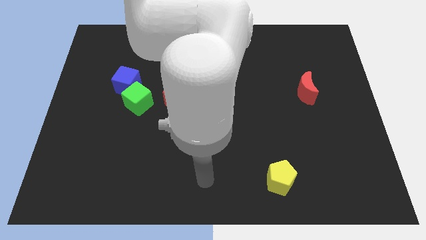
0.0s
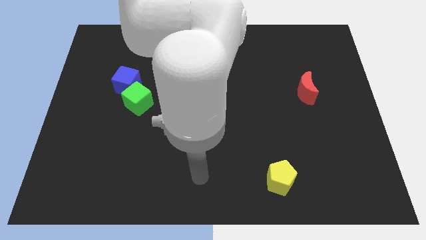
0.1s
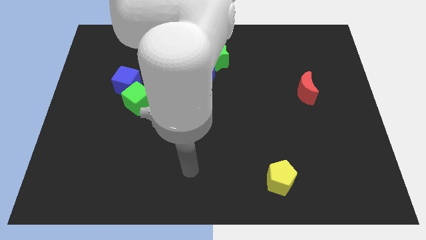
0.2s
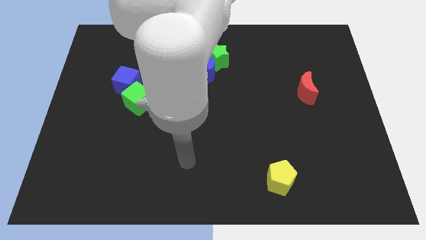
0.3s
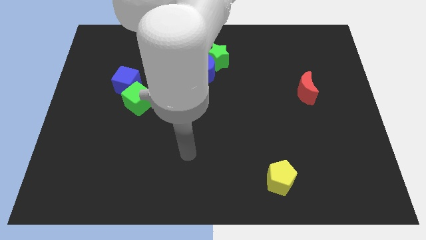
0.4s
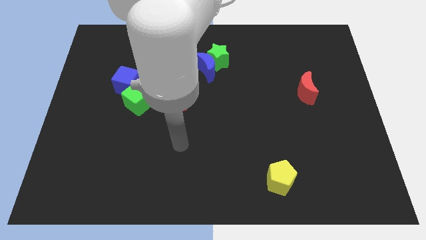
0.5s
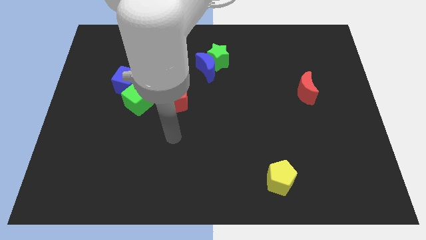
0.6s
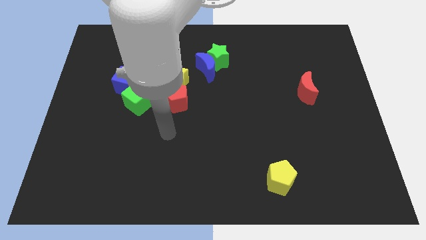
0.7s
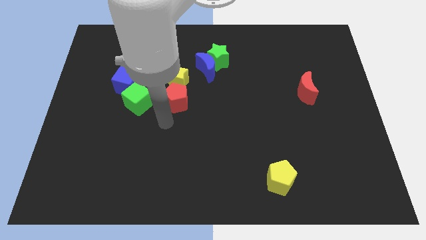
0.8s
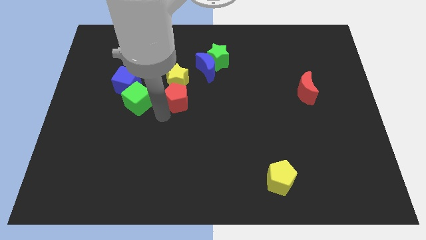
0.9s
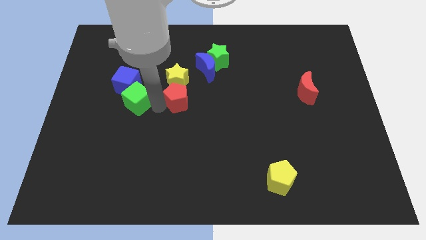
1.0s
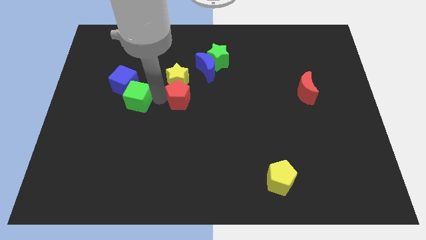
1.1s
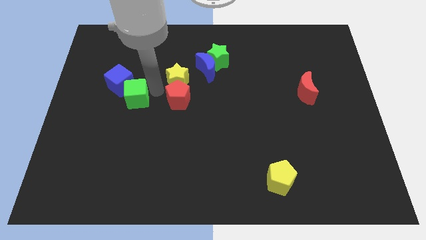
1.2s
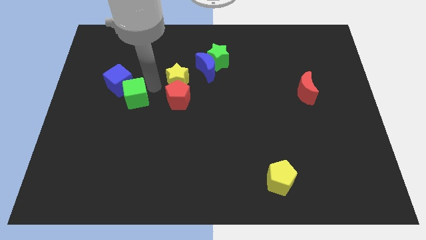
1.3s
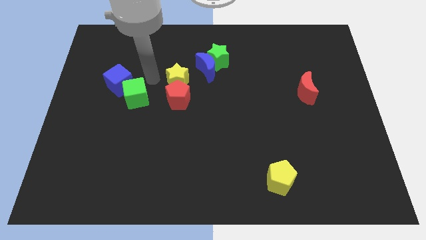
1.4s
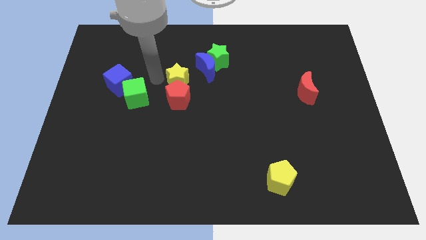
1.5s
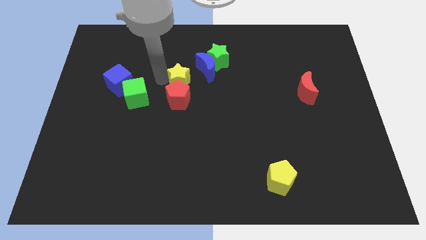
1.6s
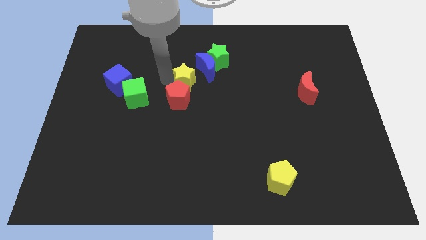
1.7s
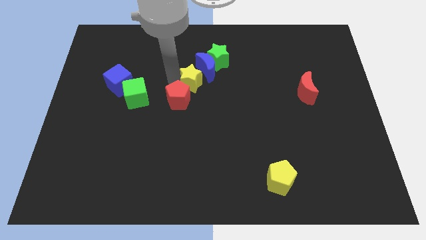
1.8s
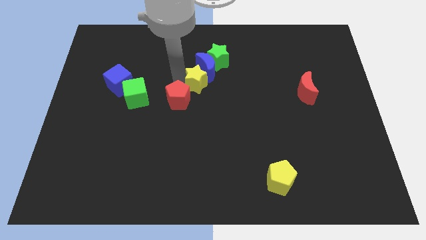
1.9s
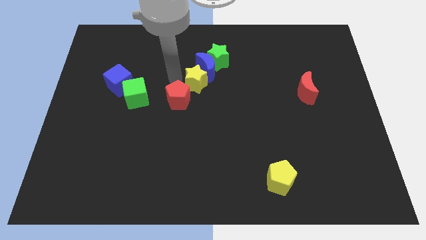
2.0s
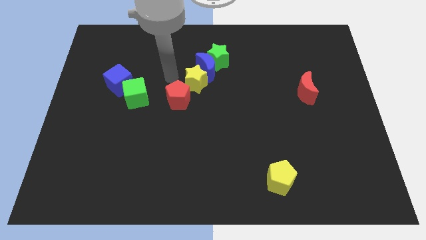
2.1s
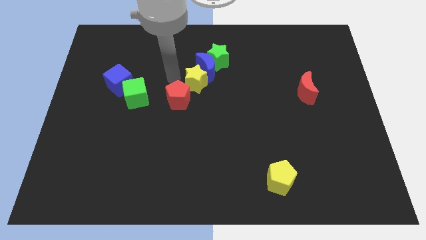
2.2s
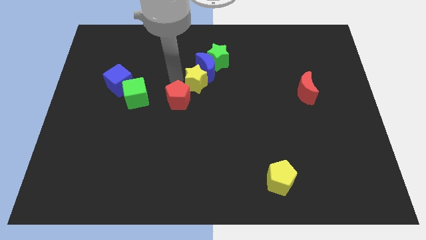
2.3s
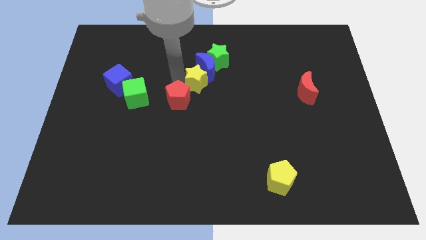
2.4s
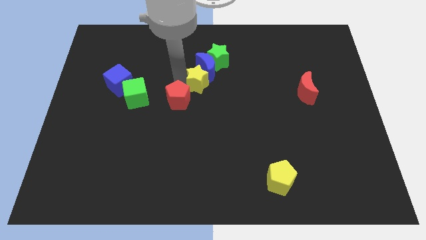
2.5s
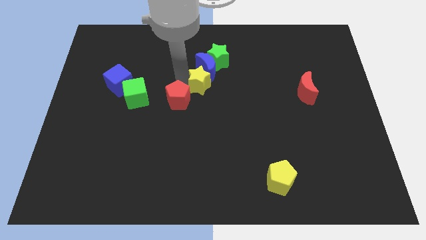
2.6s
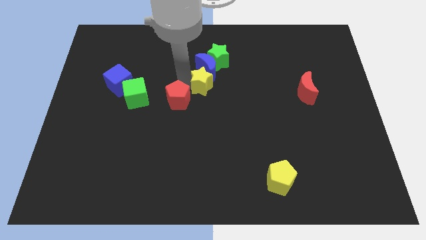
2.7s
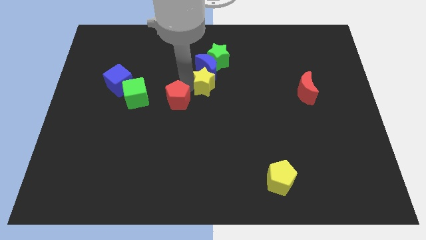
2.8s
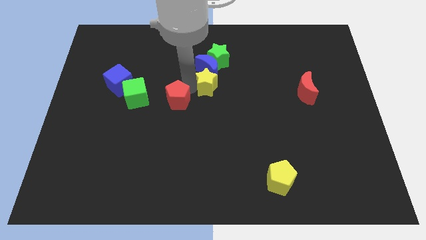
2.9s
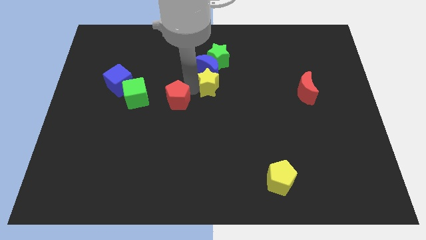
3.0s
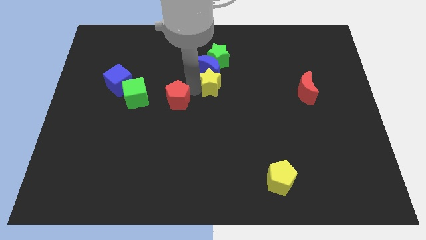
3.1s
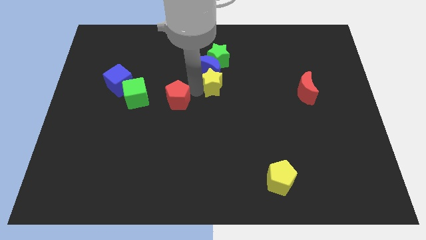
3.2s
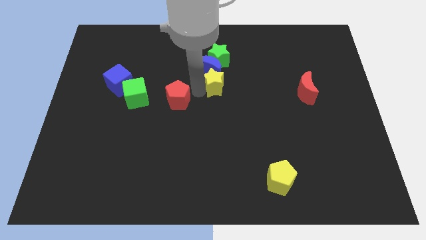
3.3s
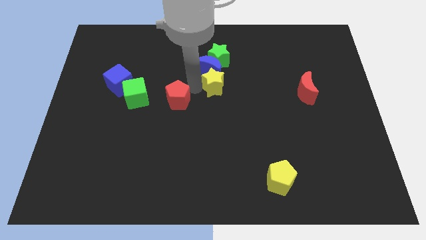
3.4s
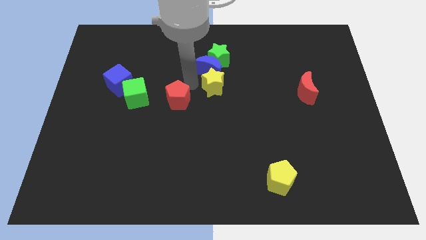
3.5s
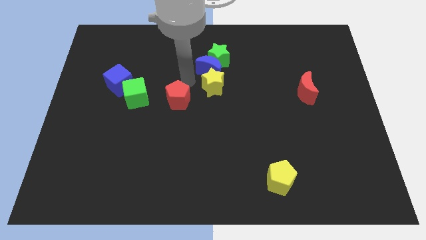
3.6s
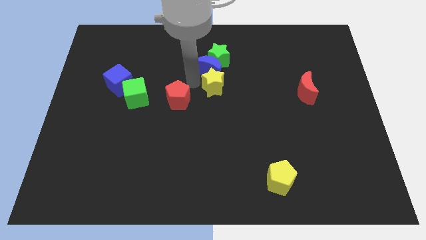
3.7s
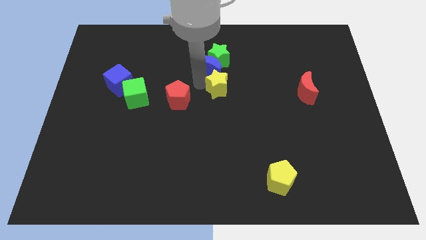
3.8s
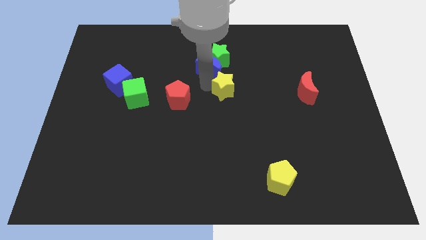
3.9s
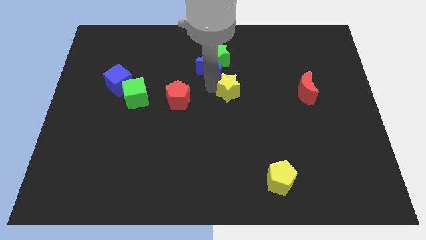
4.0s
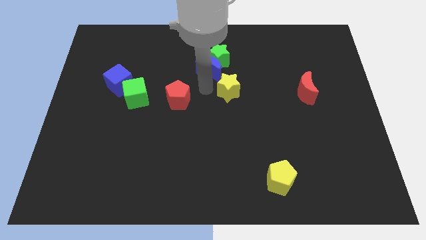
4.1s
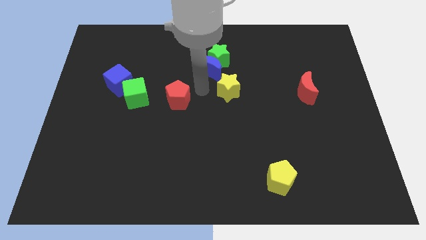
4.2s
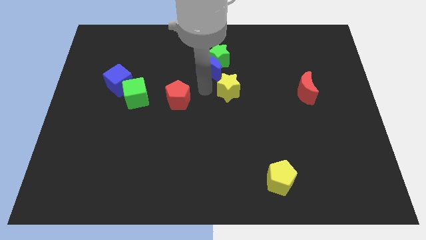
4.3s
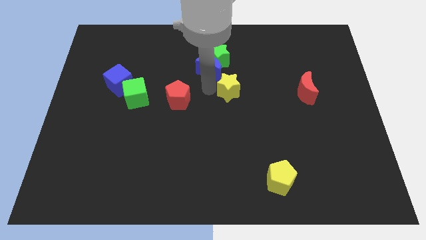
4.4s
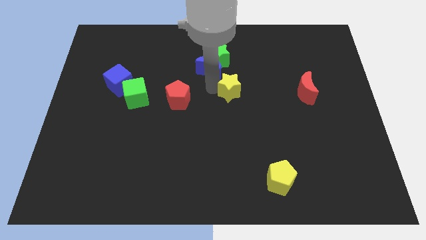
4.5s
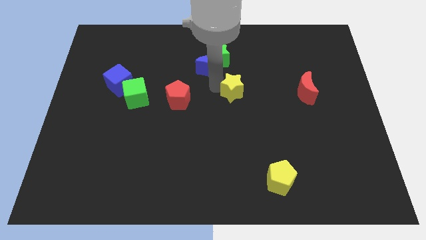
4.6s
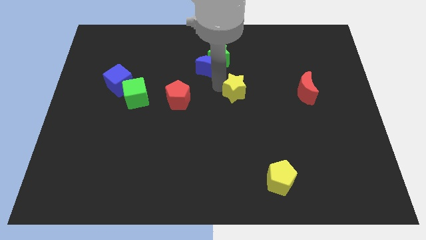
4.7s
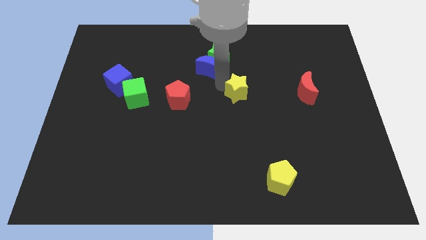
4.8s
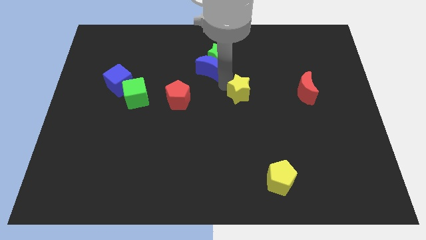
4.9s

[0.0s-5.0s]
slide the yellow star to the left side of the red moon

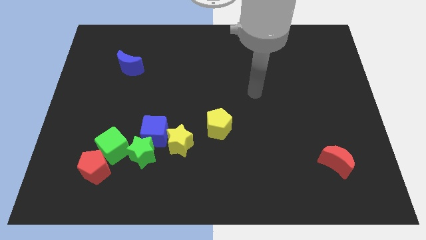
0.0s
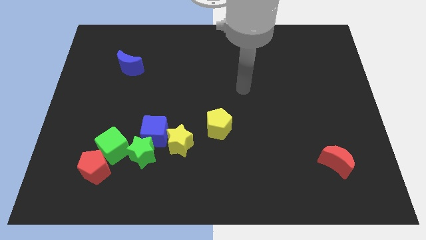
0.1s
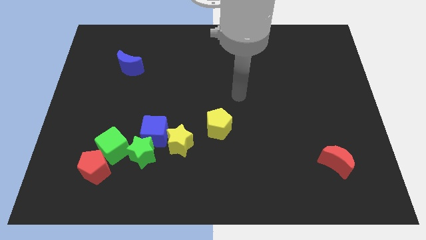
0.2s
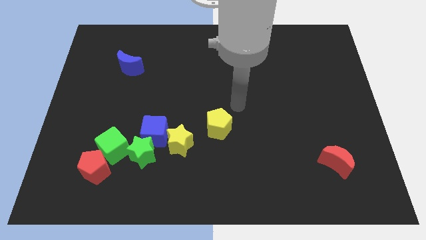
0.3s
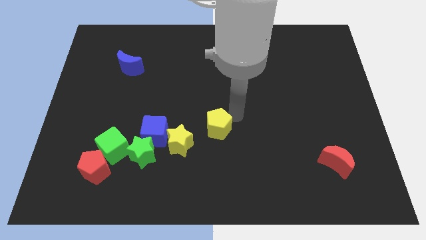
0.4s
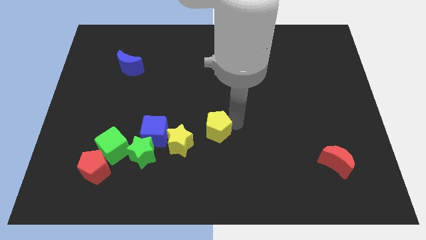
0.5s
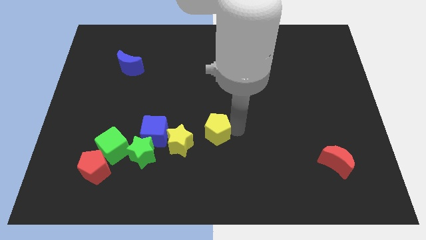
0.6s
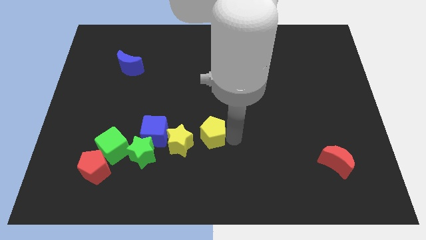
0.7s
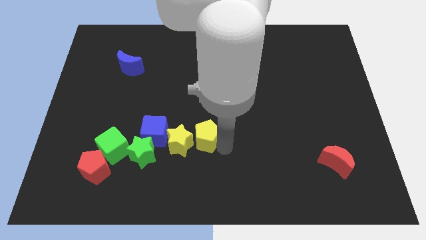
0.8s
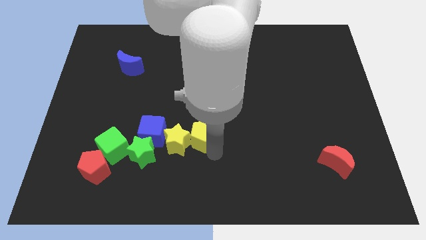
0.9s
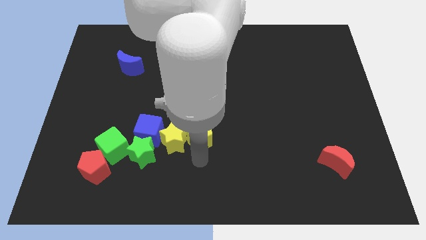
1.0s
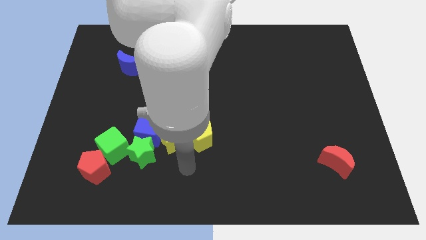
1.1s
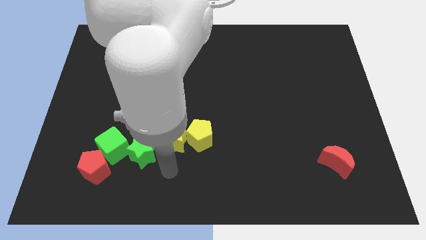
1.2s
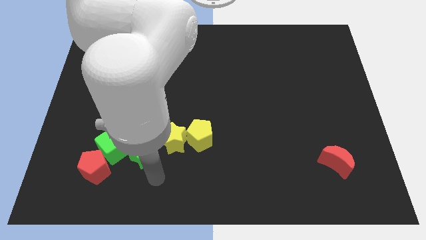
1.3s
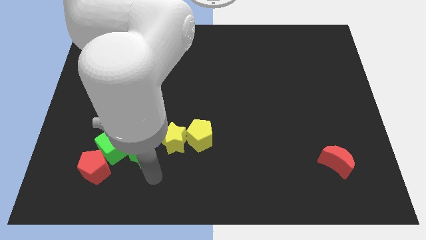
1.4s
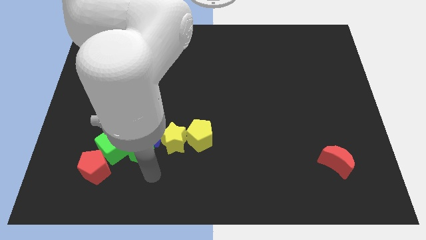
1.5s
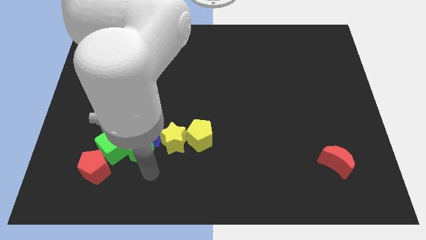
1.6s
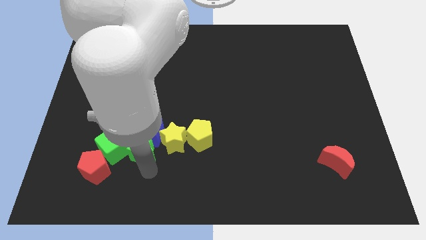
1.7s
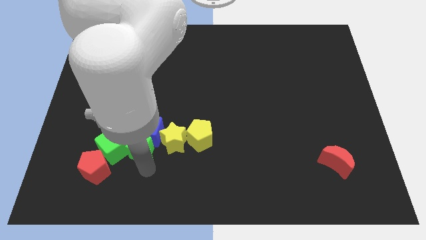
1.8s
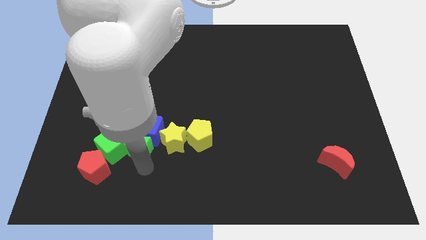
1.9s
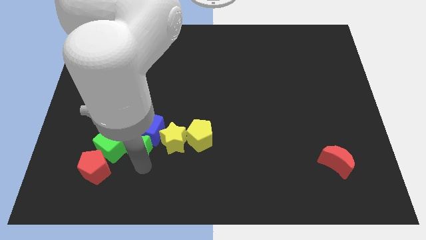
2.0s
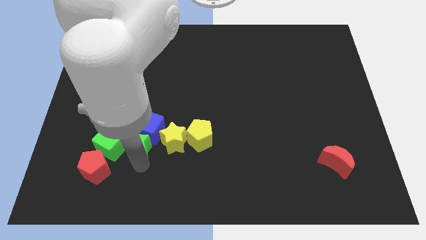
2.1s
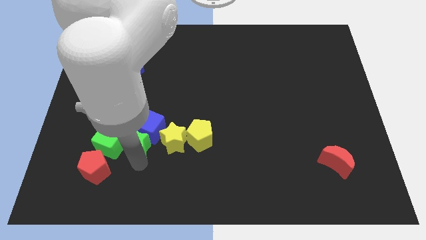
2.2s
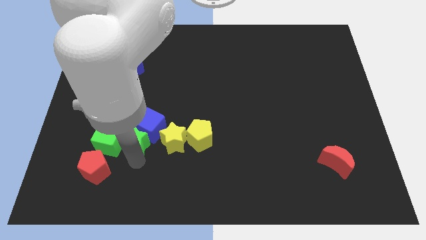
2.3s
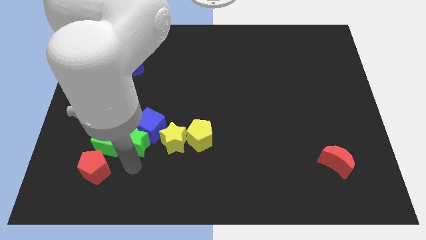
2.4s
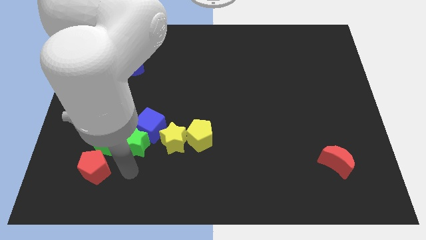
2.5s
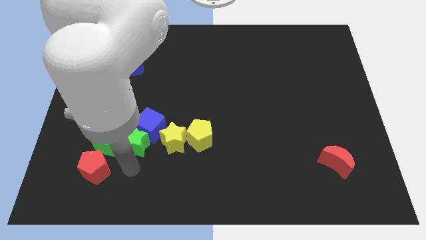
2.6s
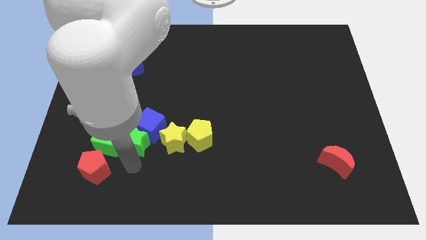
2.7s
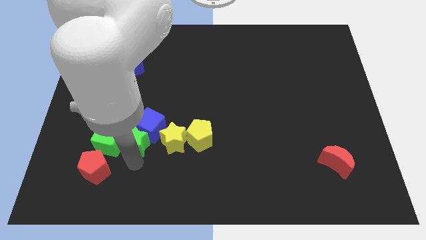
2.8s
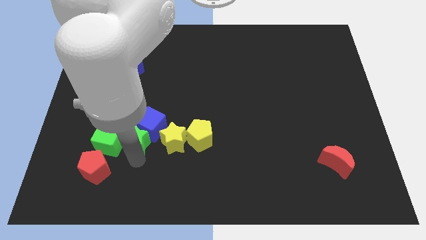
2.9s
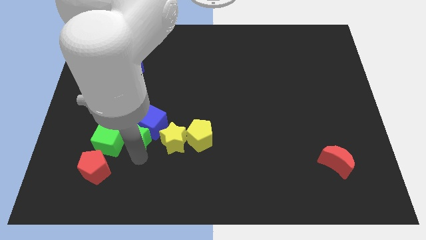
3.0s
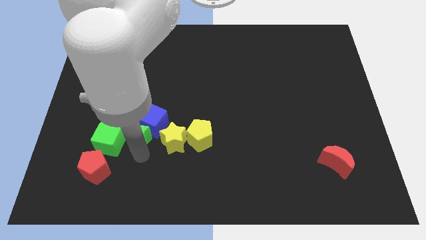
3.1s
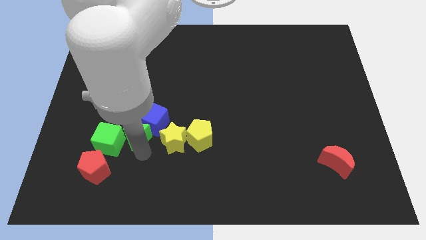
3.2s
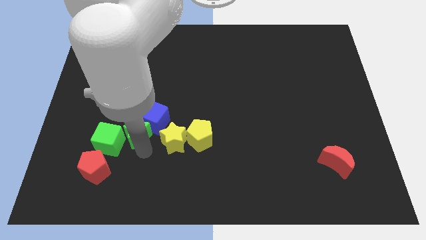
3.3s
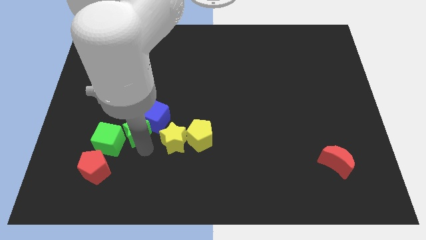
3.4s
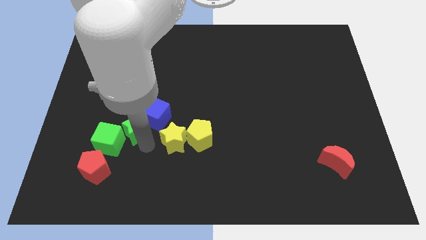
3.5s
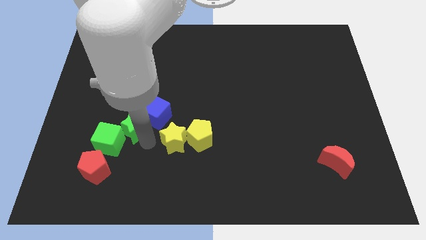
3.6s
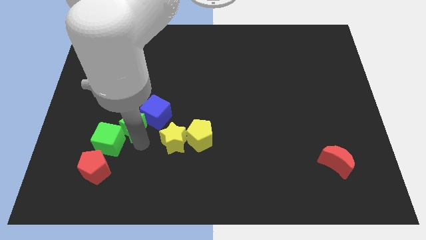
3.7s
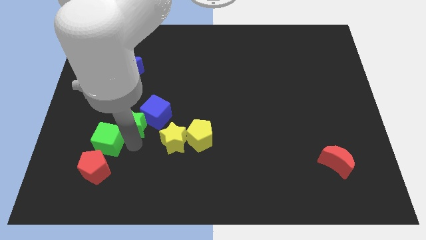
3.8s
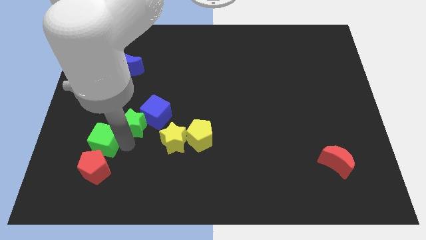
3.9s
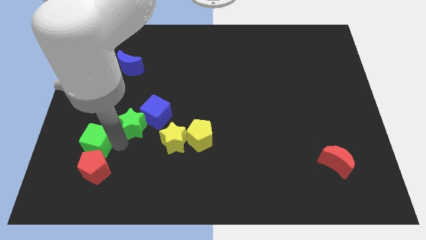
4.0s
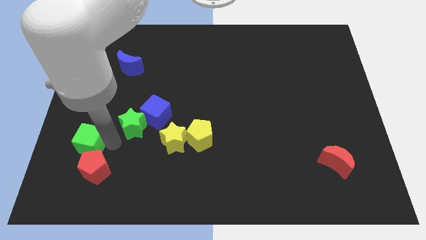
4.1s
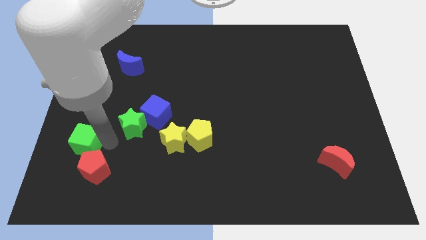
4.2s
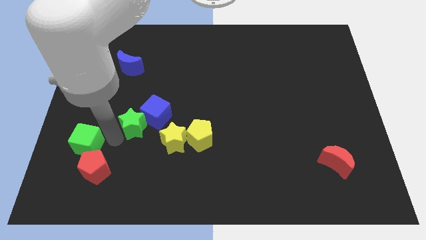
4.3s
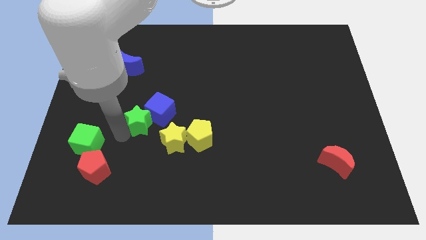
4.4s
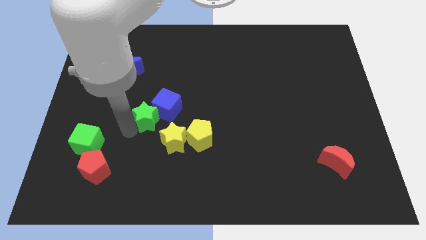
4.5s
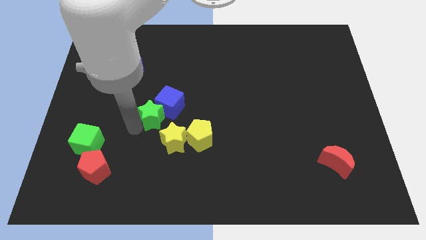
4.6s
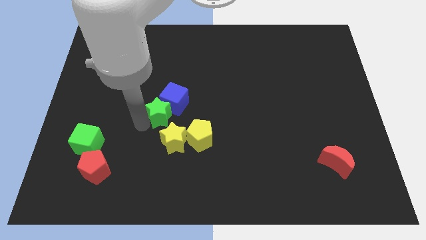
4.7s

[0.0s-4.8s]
put the green star to the top of the yellow star
